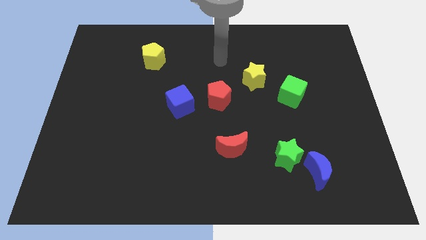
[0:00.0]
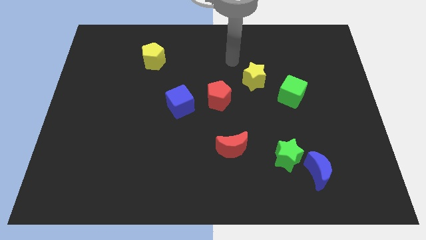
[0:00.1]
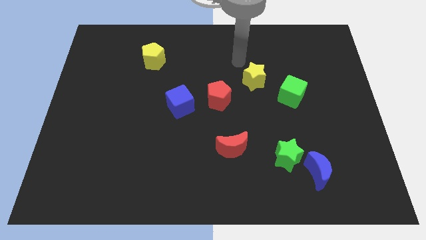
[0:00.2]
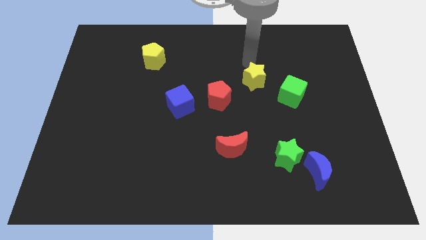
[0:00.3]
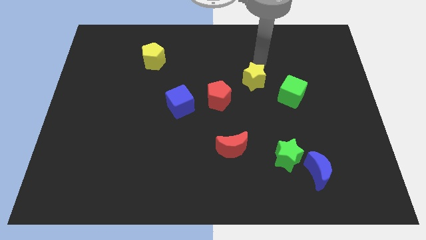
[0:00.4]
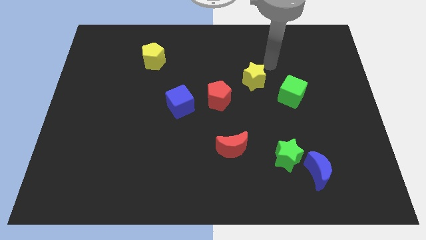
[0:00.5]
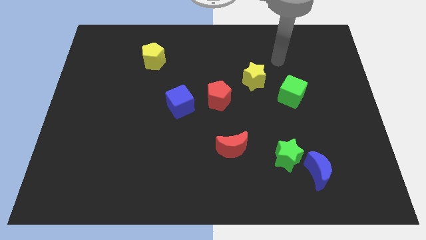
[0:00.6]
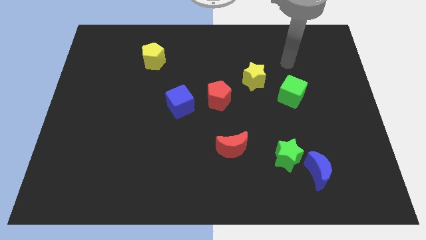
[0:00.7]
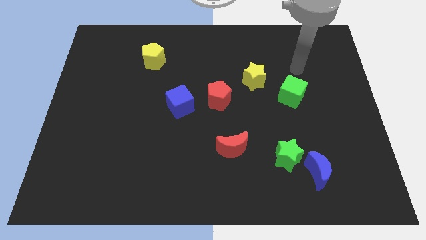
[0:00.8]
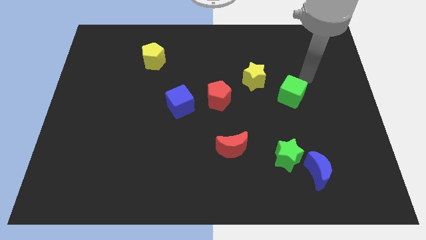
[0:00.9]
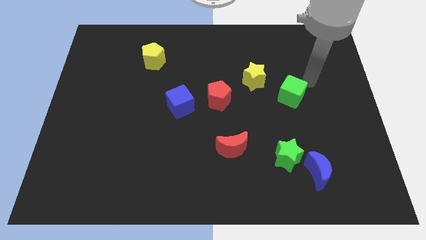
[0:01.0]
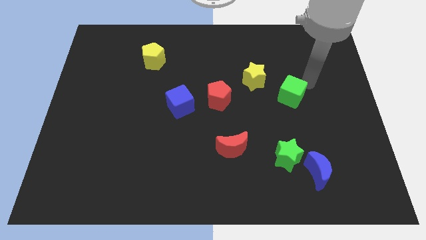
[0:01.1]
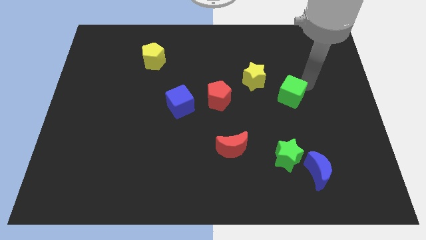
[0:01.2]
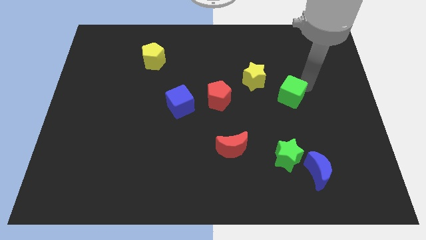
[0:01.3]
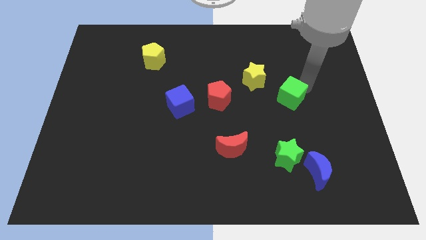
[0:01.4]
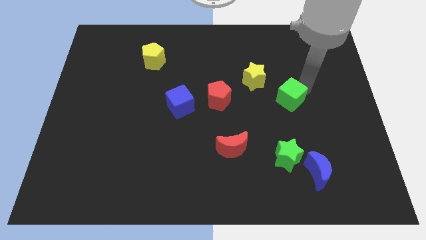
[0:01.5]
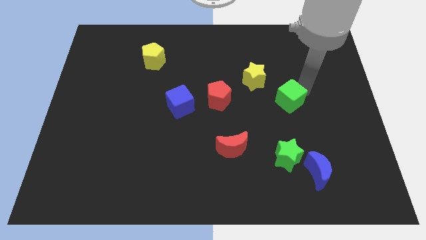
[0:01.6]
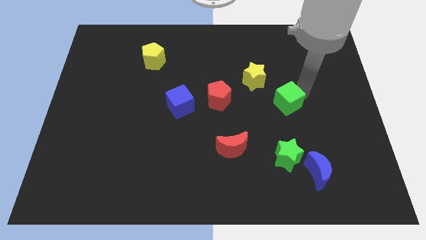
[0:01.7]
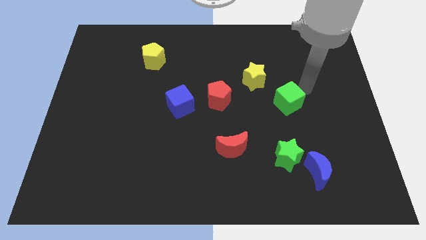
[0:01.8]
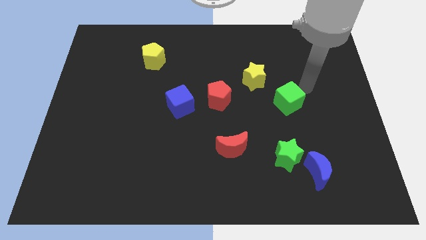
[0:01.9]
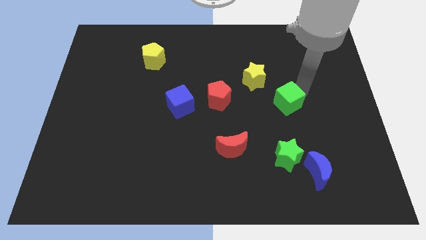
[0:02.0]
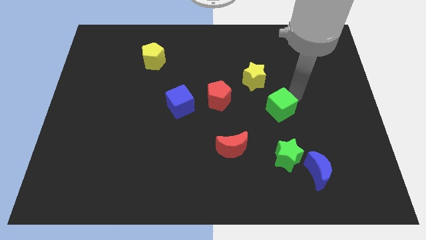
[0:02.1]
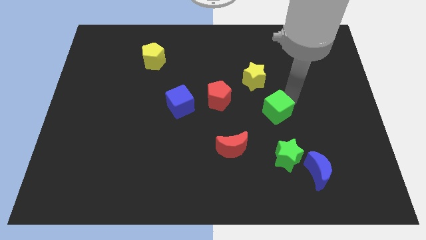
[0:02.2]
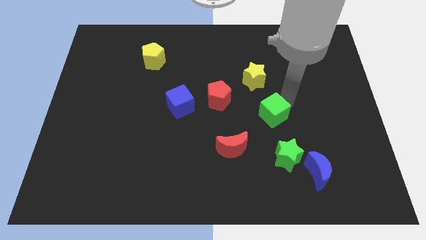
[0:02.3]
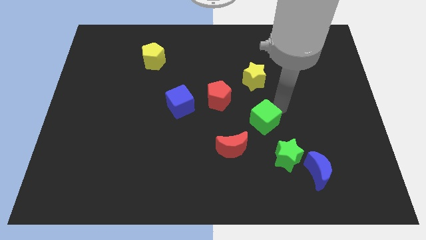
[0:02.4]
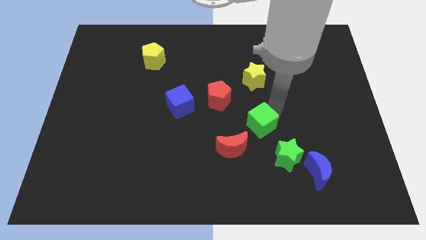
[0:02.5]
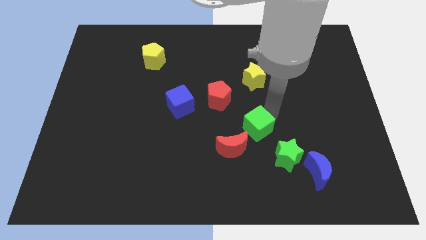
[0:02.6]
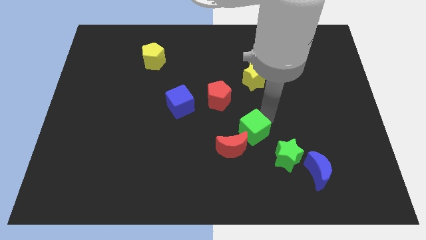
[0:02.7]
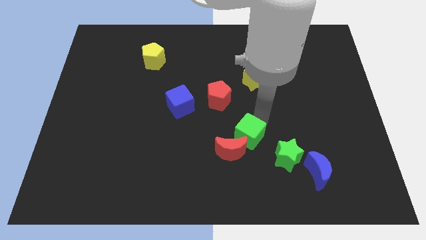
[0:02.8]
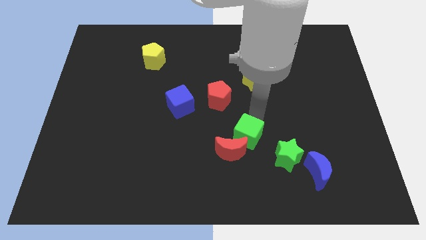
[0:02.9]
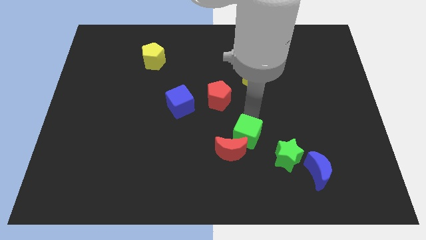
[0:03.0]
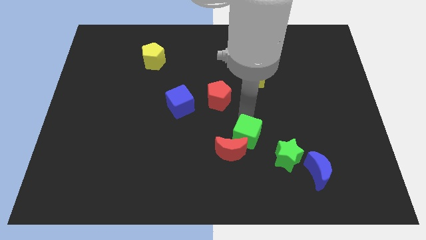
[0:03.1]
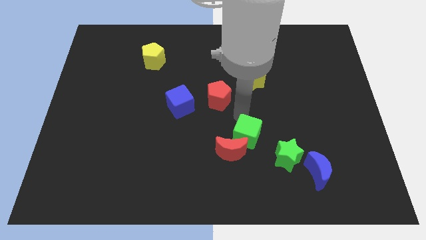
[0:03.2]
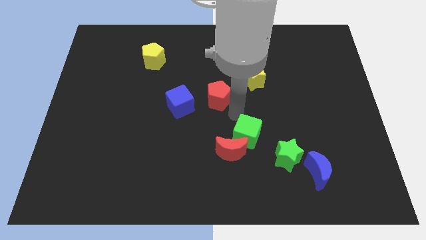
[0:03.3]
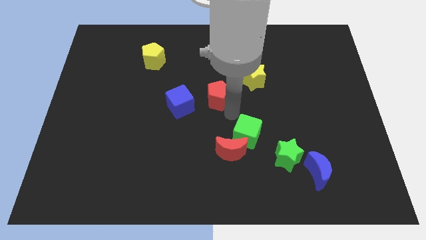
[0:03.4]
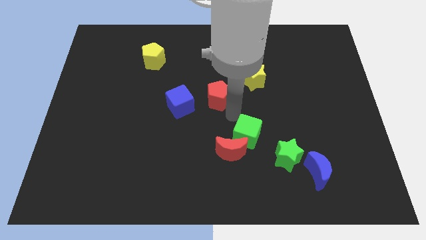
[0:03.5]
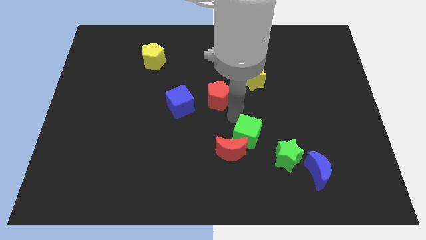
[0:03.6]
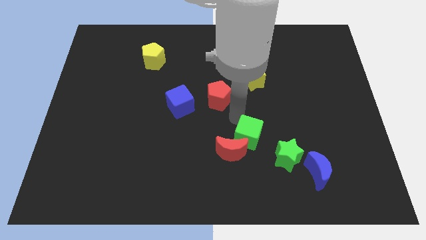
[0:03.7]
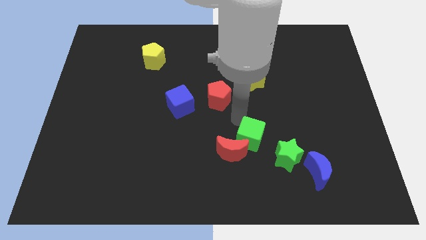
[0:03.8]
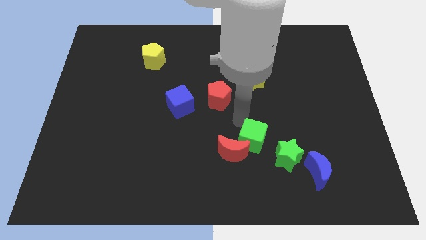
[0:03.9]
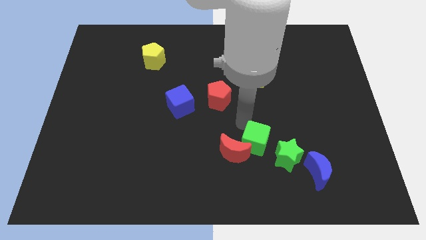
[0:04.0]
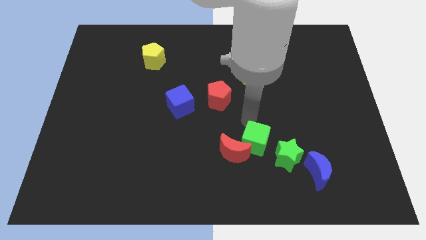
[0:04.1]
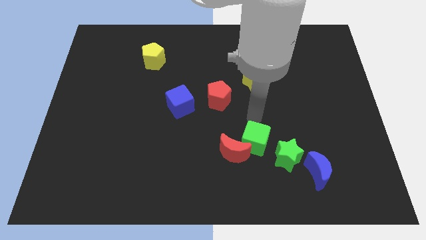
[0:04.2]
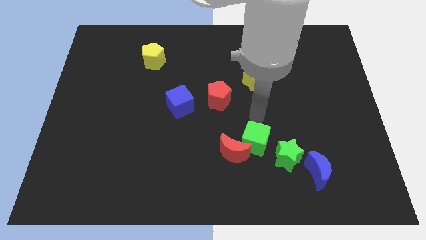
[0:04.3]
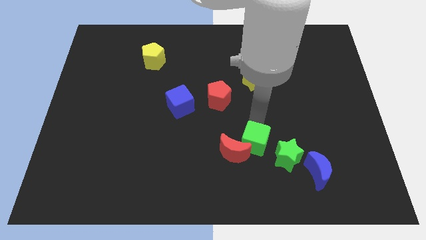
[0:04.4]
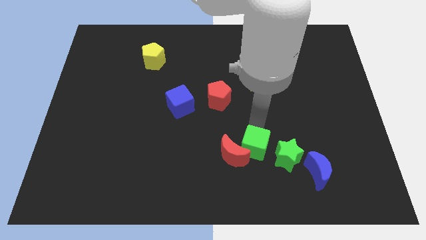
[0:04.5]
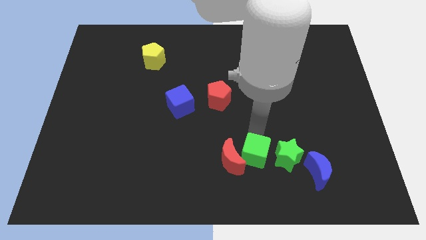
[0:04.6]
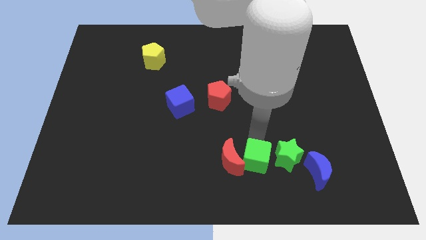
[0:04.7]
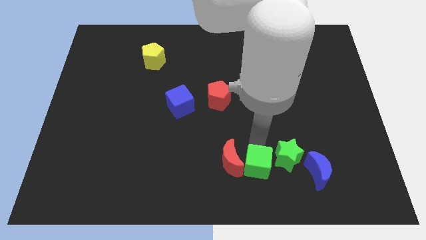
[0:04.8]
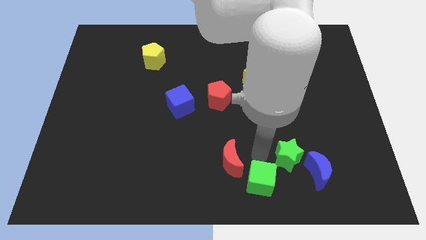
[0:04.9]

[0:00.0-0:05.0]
push the green cube to the bottom

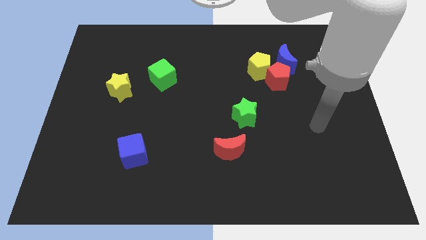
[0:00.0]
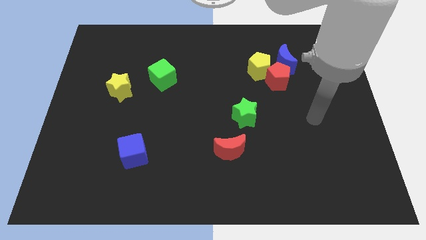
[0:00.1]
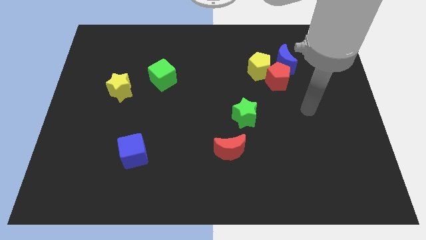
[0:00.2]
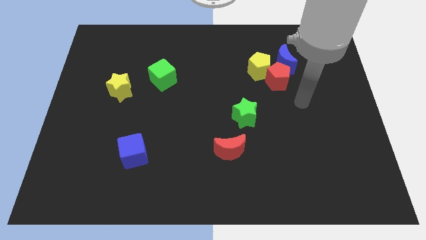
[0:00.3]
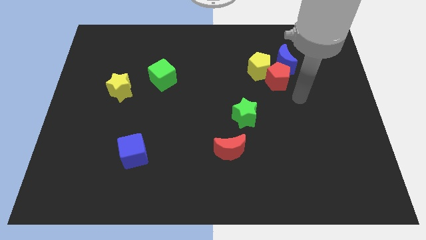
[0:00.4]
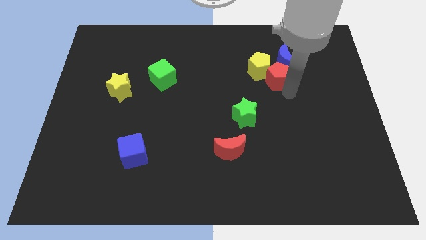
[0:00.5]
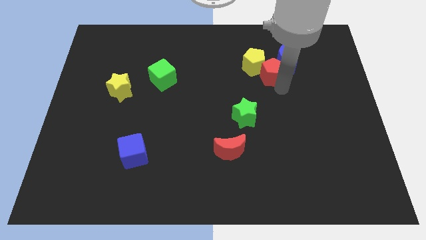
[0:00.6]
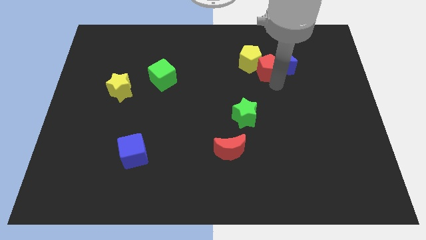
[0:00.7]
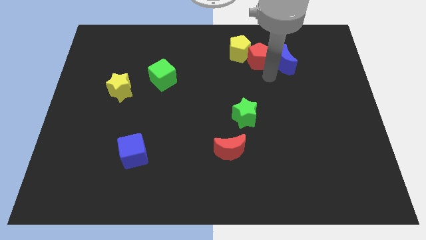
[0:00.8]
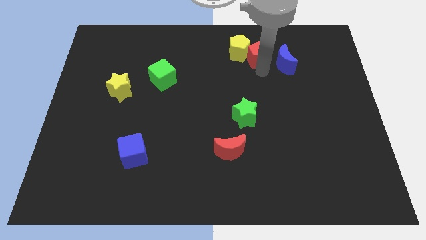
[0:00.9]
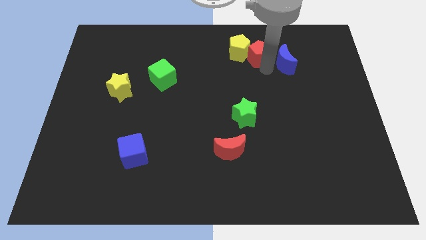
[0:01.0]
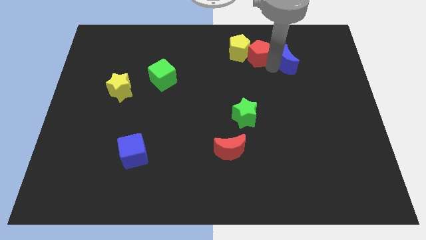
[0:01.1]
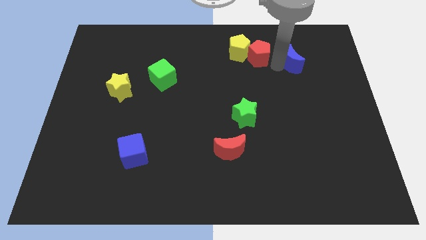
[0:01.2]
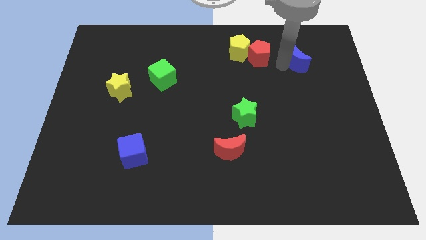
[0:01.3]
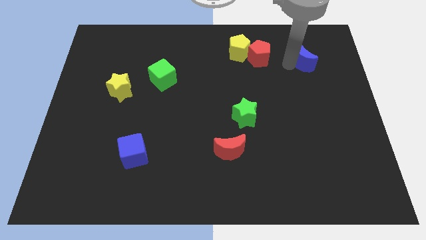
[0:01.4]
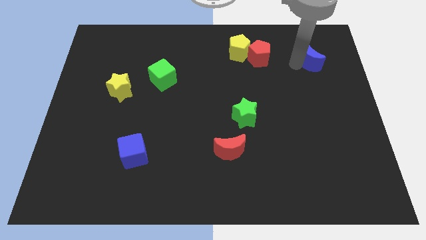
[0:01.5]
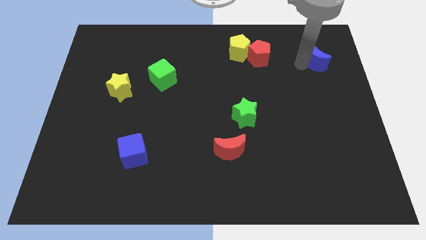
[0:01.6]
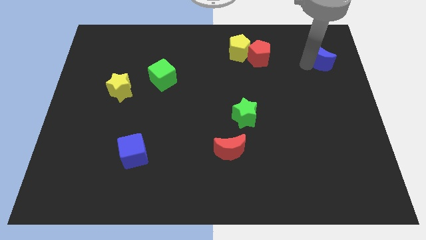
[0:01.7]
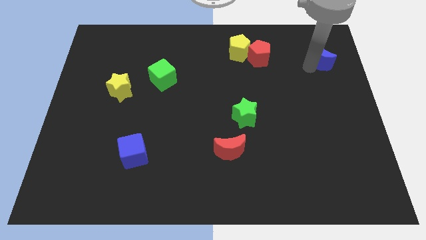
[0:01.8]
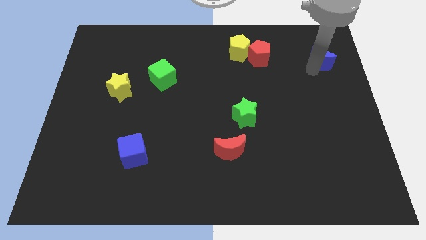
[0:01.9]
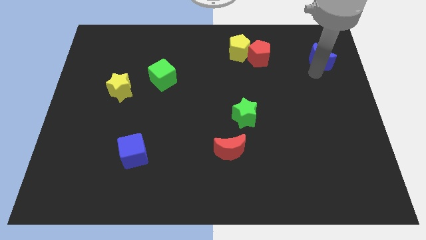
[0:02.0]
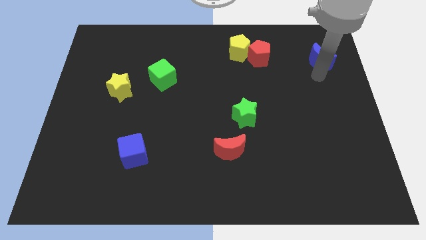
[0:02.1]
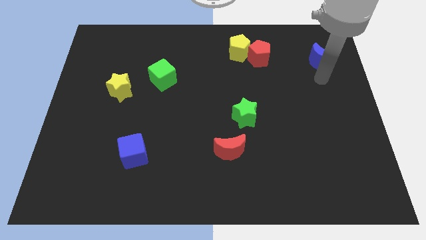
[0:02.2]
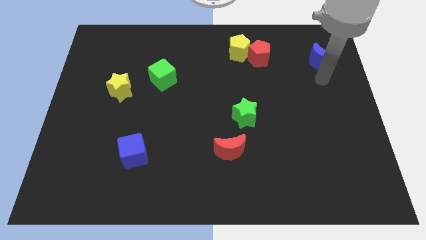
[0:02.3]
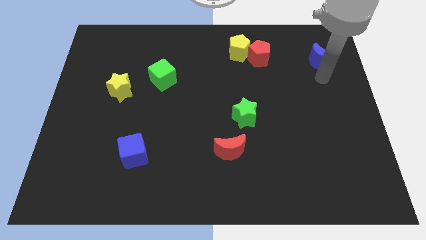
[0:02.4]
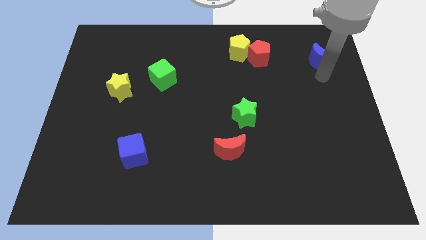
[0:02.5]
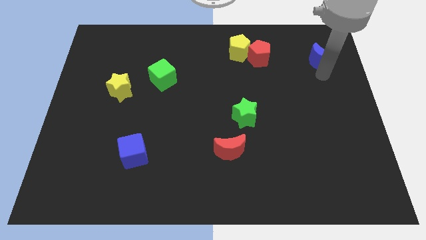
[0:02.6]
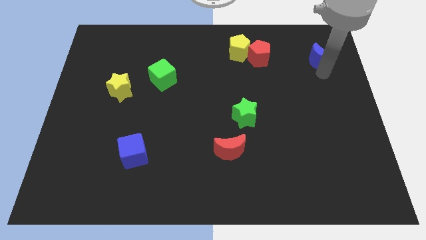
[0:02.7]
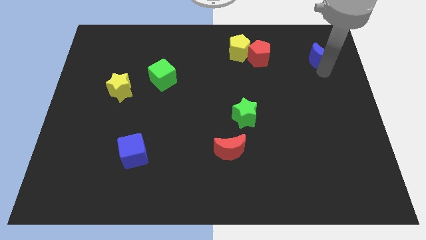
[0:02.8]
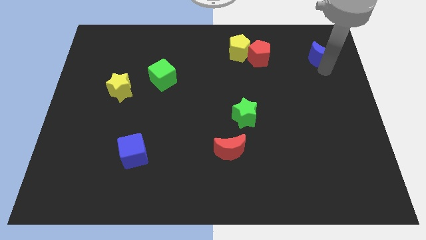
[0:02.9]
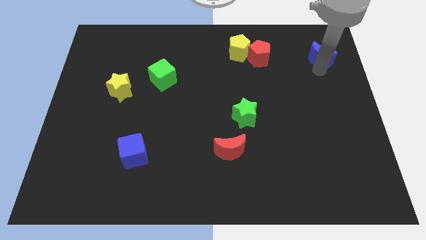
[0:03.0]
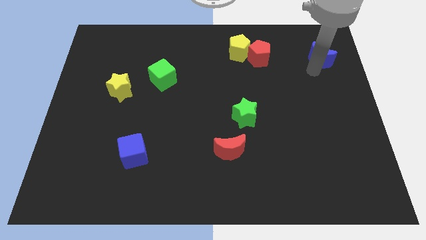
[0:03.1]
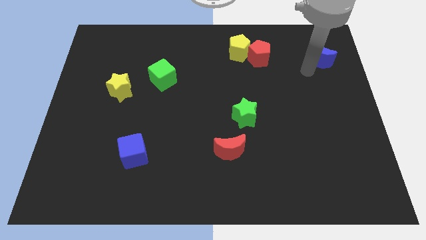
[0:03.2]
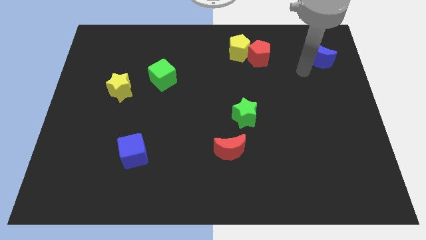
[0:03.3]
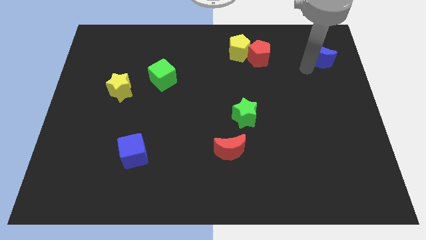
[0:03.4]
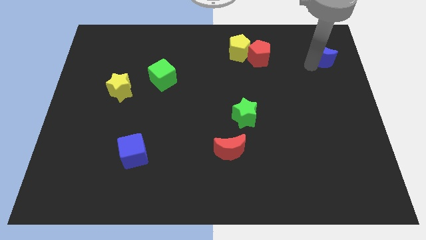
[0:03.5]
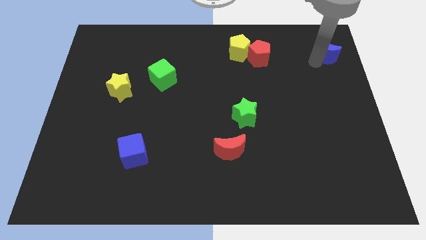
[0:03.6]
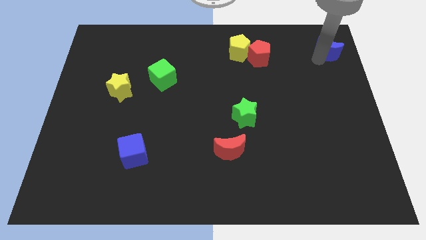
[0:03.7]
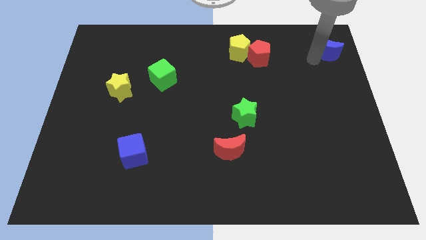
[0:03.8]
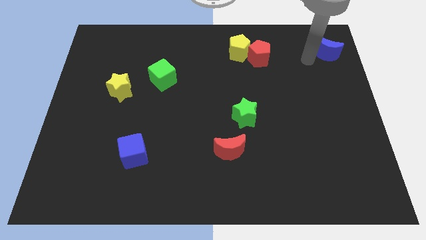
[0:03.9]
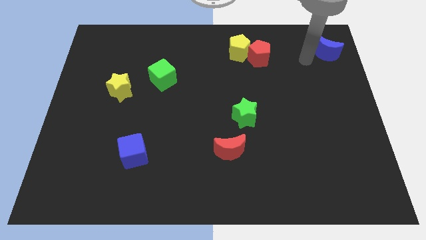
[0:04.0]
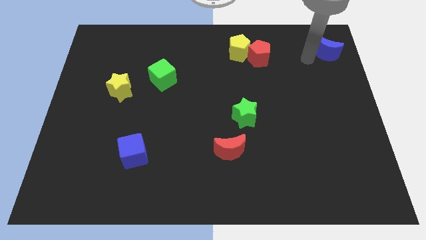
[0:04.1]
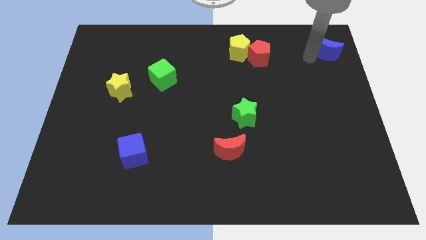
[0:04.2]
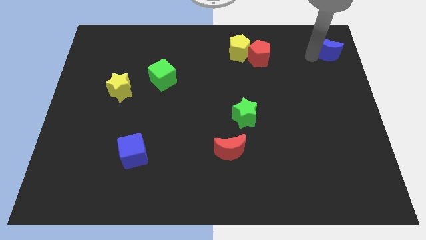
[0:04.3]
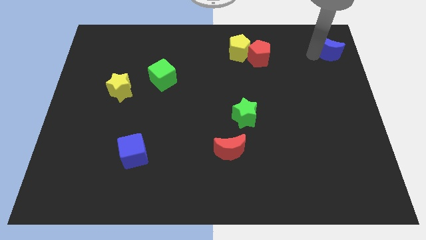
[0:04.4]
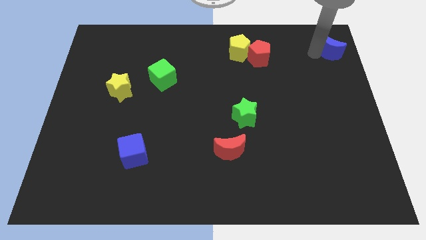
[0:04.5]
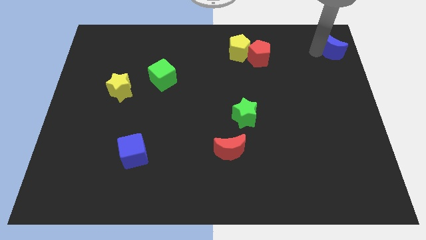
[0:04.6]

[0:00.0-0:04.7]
push the blue moon to the top right
